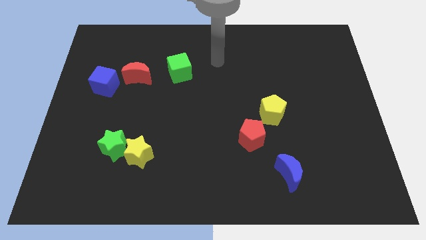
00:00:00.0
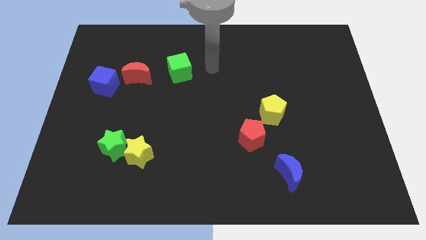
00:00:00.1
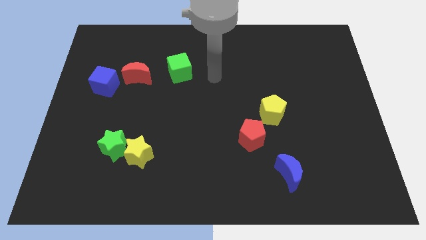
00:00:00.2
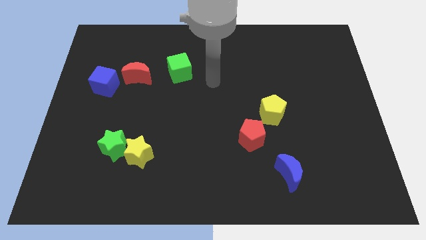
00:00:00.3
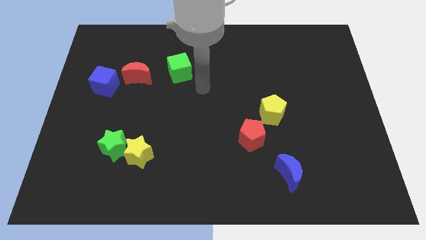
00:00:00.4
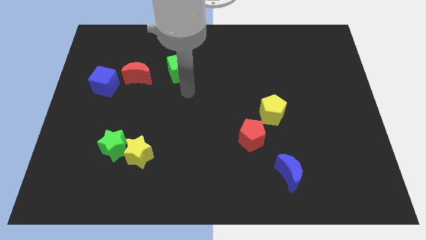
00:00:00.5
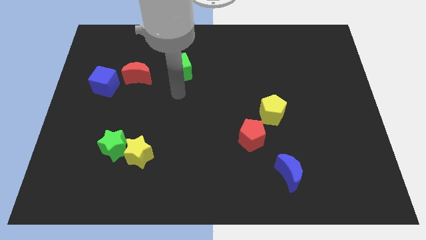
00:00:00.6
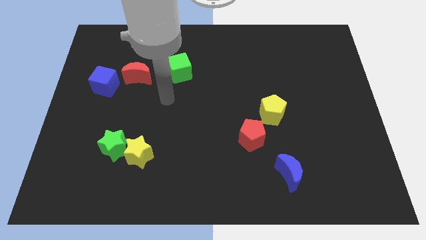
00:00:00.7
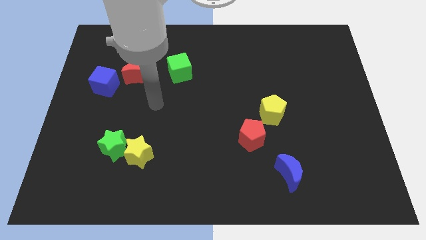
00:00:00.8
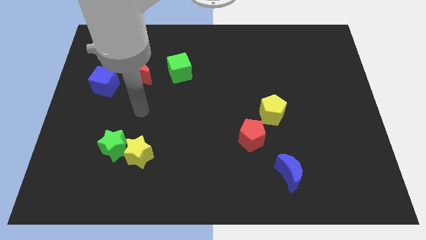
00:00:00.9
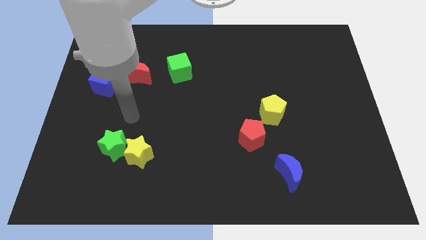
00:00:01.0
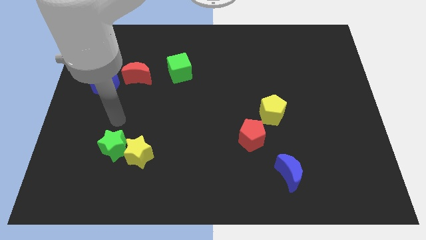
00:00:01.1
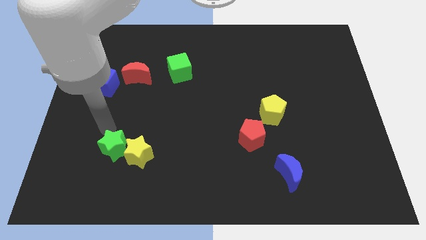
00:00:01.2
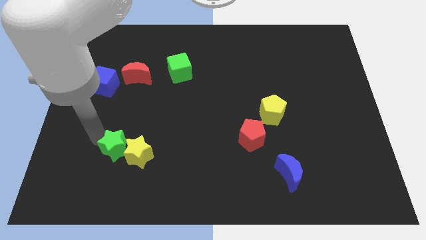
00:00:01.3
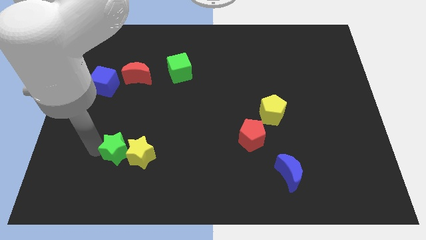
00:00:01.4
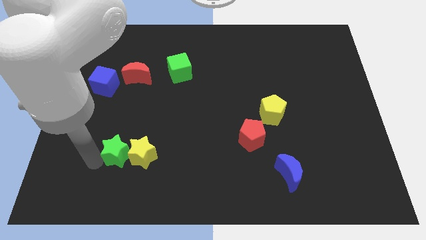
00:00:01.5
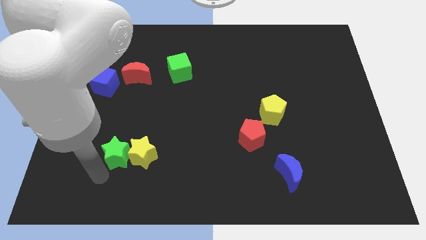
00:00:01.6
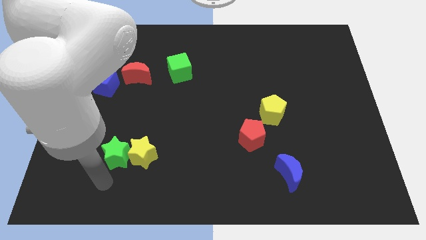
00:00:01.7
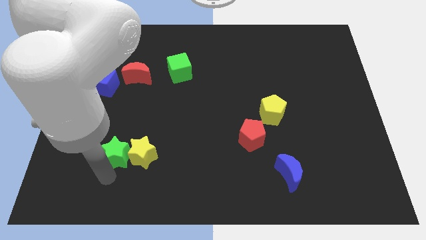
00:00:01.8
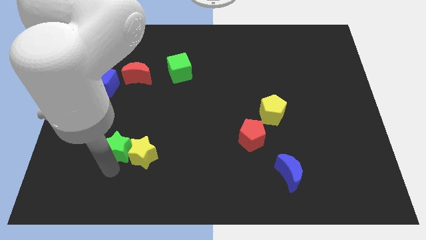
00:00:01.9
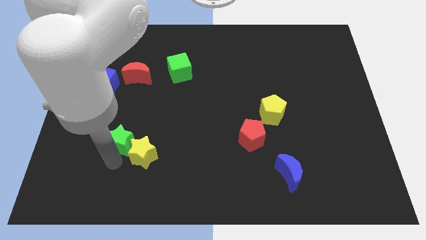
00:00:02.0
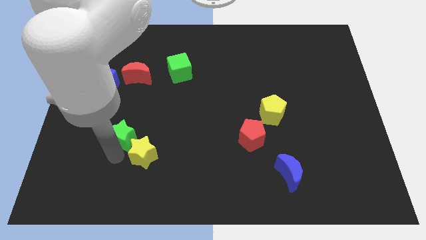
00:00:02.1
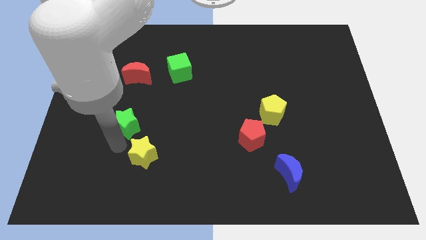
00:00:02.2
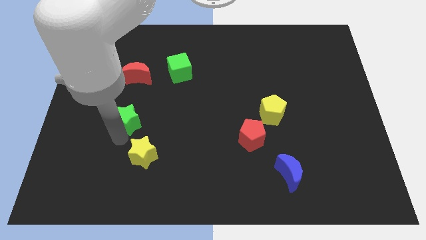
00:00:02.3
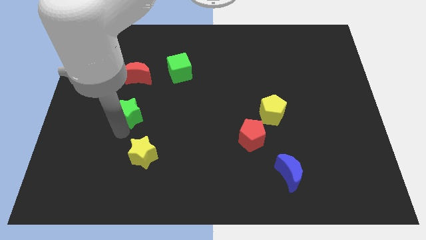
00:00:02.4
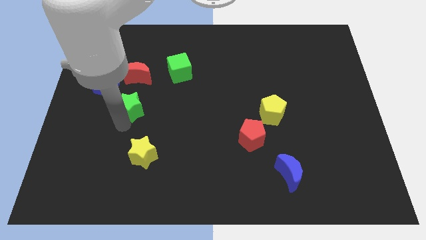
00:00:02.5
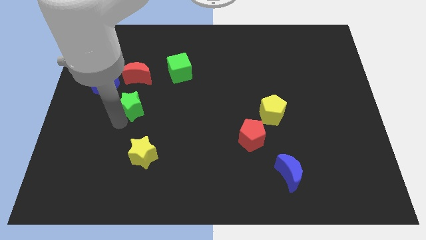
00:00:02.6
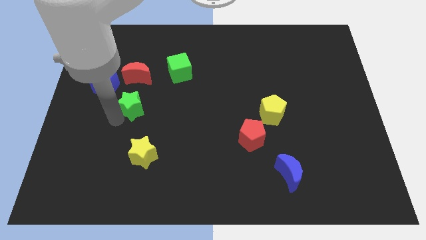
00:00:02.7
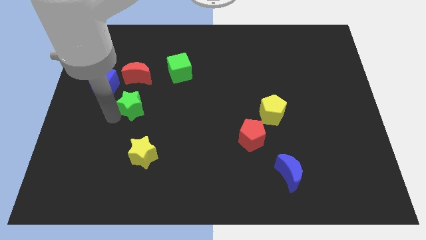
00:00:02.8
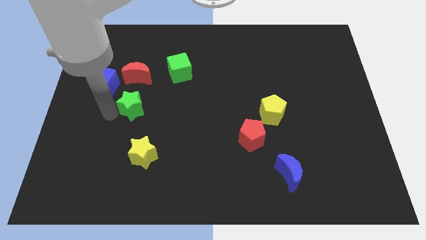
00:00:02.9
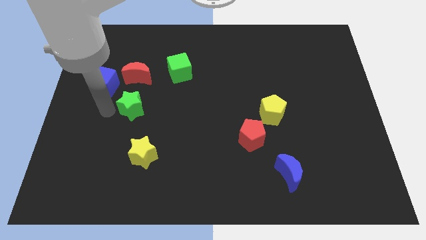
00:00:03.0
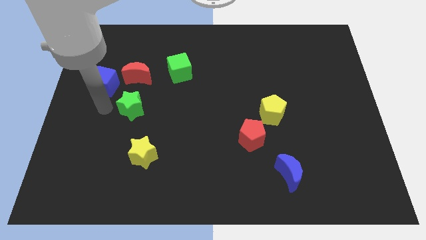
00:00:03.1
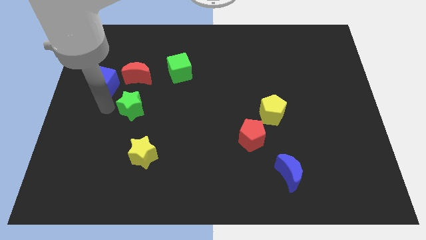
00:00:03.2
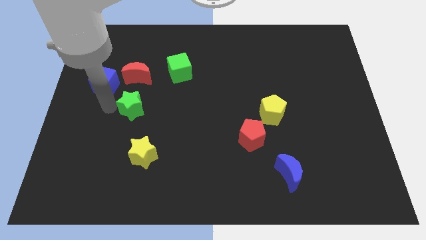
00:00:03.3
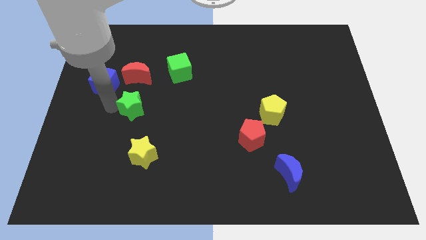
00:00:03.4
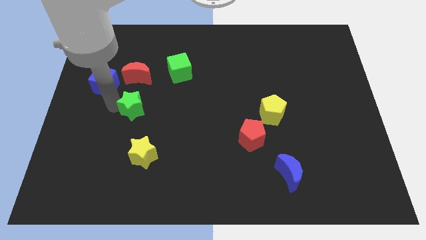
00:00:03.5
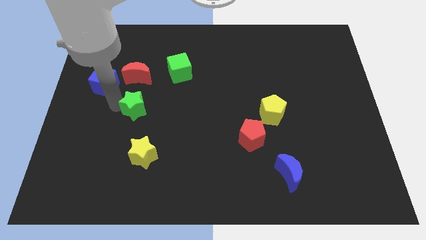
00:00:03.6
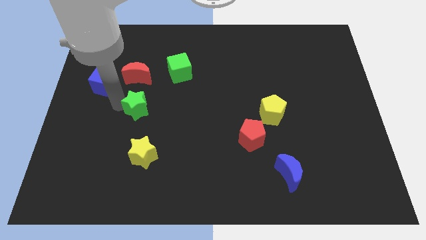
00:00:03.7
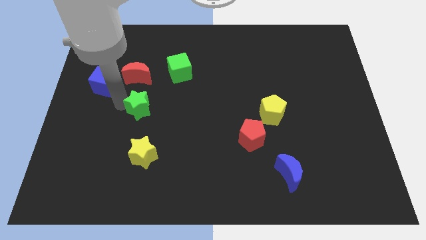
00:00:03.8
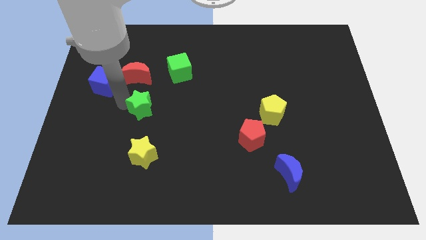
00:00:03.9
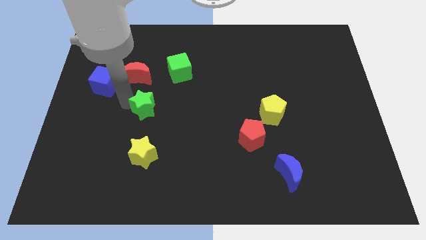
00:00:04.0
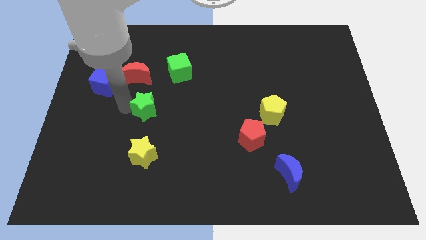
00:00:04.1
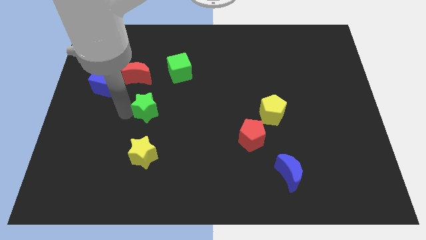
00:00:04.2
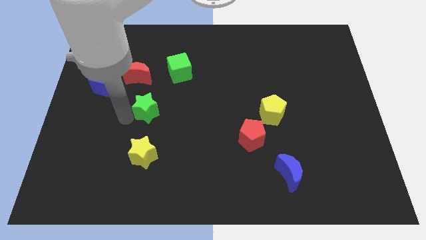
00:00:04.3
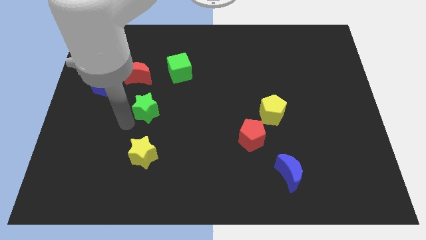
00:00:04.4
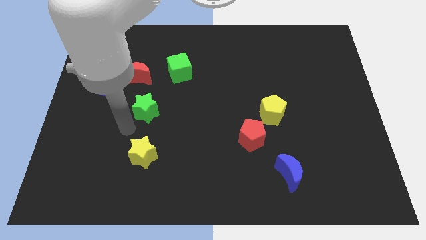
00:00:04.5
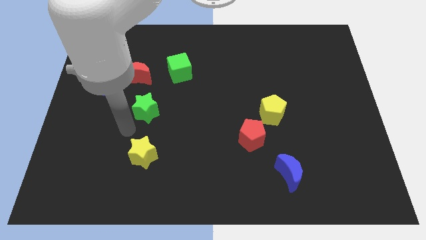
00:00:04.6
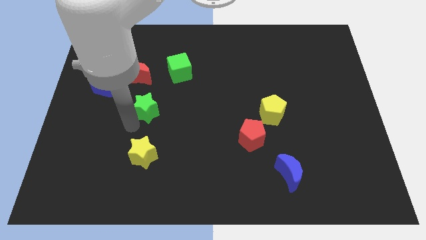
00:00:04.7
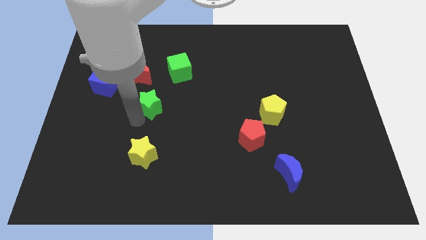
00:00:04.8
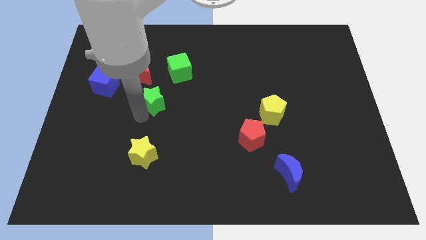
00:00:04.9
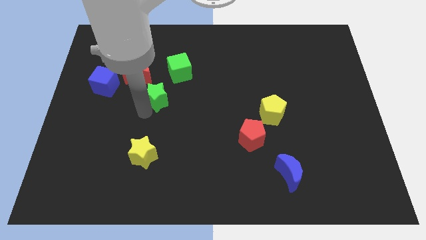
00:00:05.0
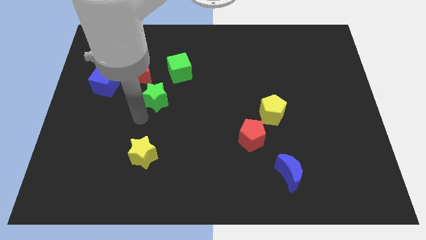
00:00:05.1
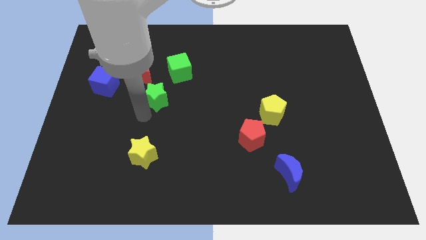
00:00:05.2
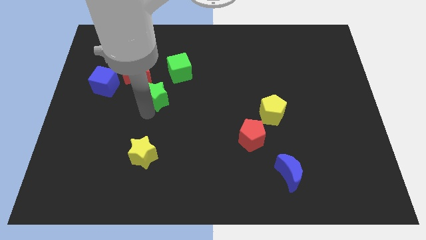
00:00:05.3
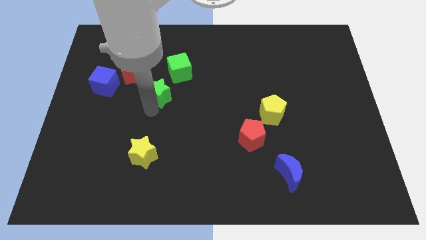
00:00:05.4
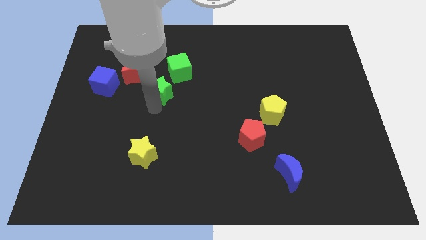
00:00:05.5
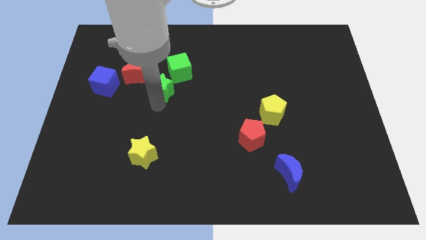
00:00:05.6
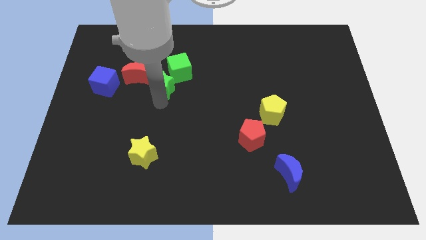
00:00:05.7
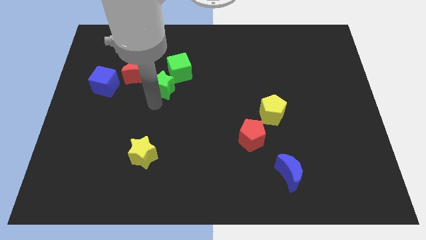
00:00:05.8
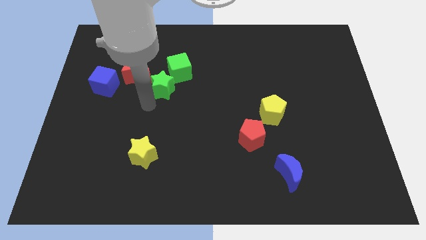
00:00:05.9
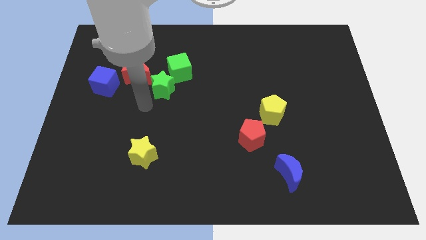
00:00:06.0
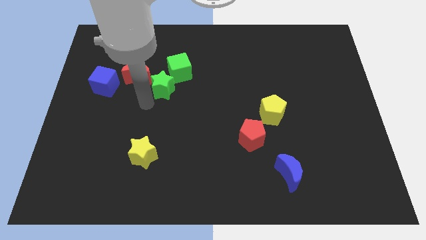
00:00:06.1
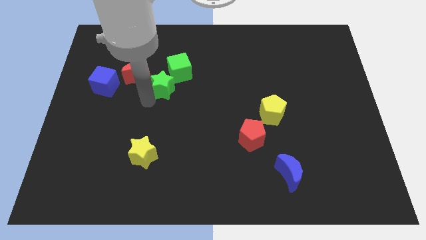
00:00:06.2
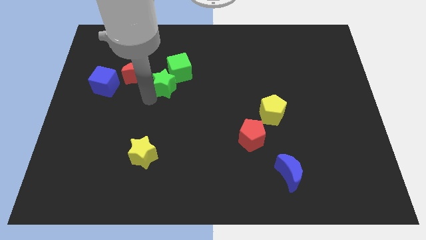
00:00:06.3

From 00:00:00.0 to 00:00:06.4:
push the green star close to the green cube
